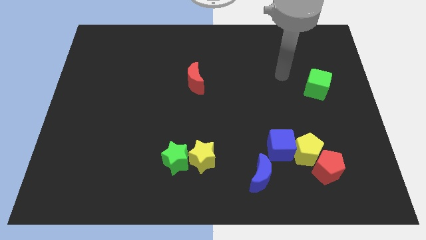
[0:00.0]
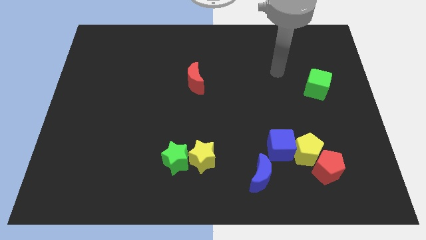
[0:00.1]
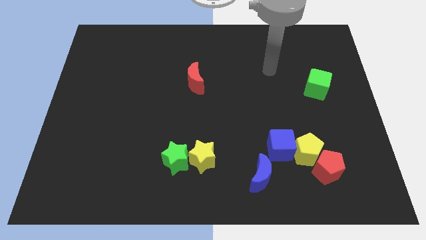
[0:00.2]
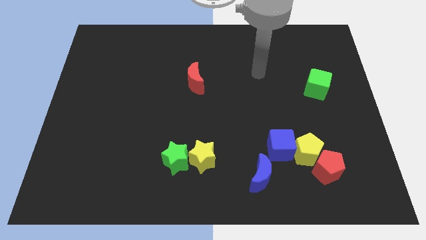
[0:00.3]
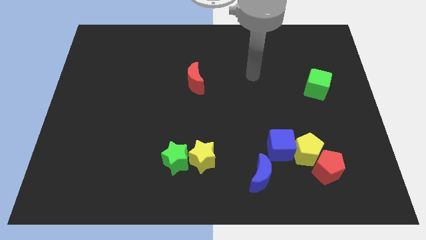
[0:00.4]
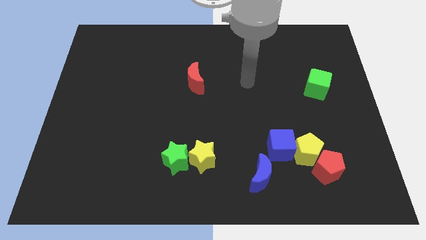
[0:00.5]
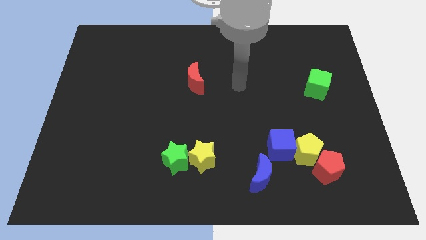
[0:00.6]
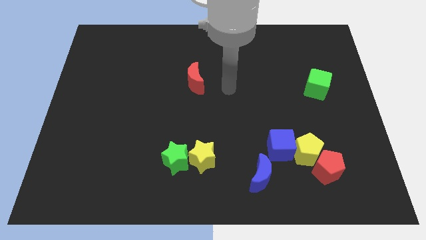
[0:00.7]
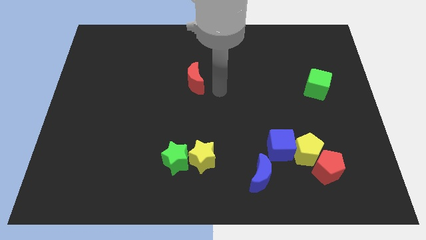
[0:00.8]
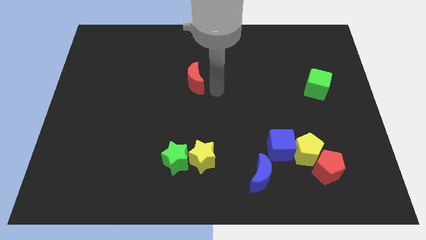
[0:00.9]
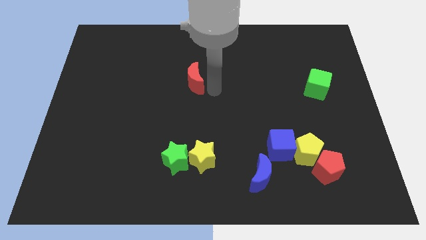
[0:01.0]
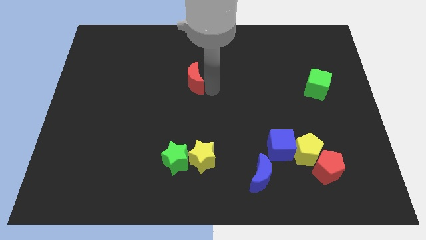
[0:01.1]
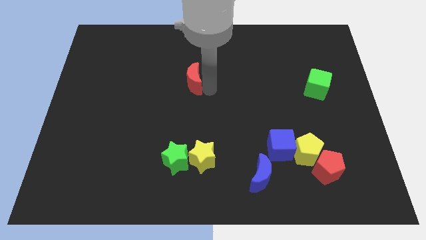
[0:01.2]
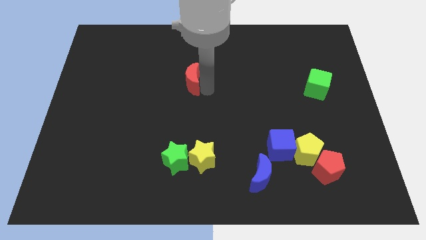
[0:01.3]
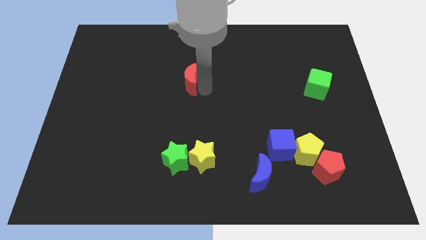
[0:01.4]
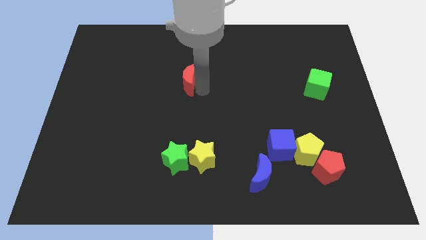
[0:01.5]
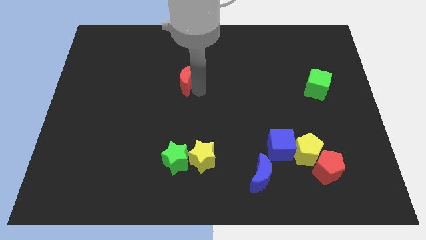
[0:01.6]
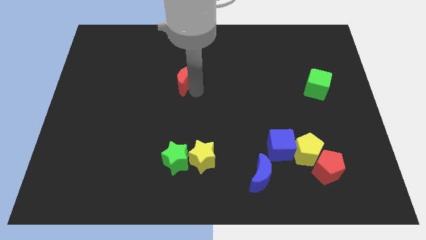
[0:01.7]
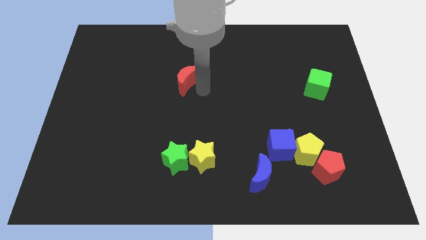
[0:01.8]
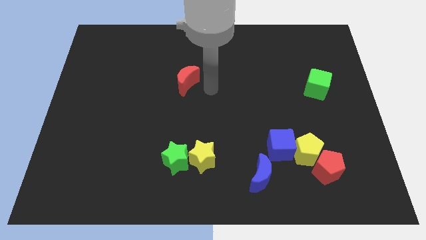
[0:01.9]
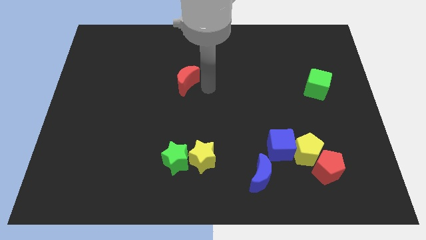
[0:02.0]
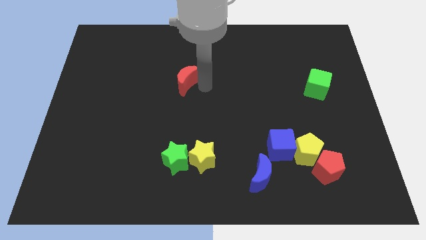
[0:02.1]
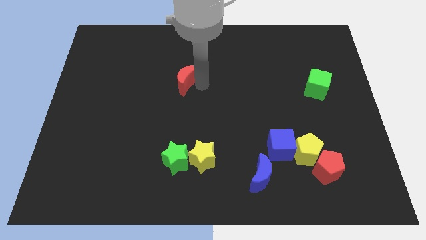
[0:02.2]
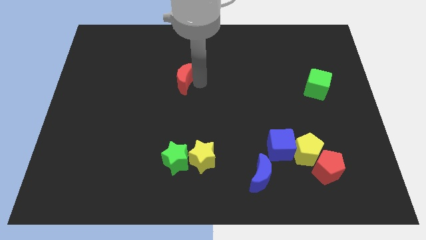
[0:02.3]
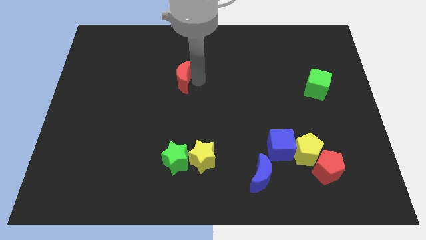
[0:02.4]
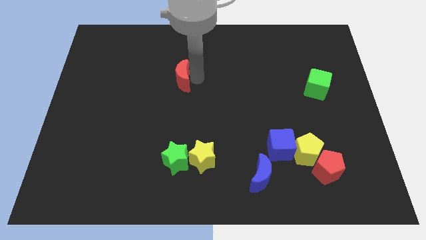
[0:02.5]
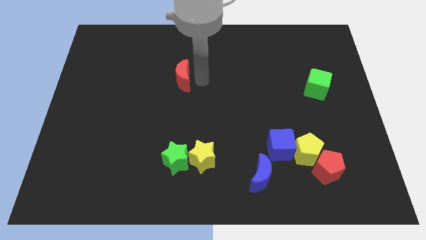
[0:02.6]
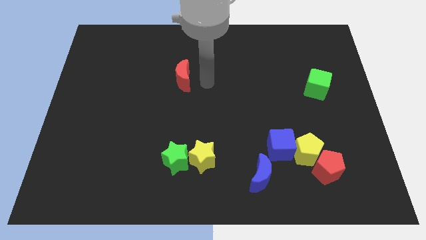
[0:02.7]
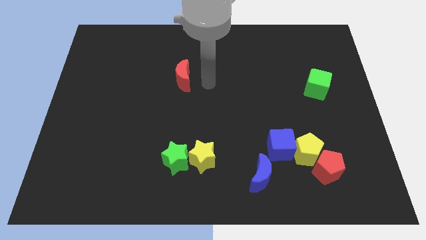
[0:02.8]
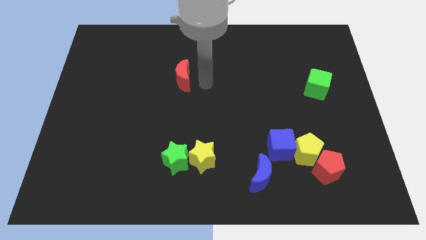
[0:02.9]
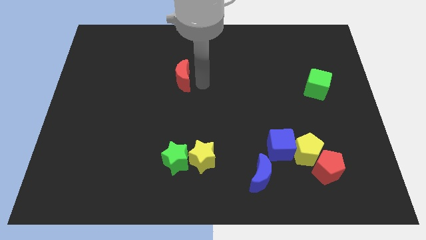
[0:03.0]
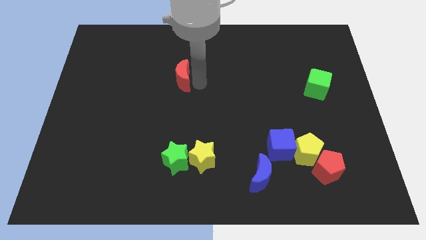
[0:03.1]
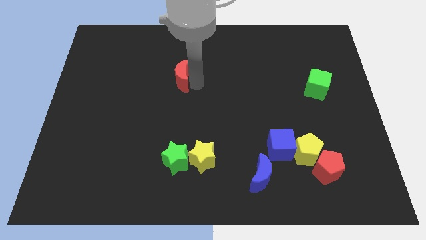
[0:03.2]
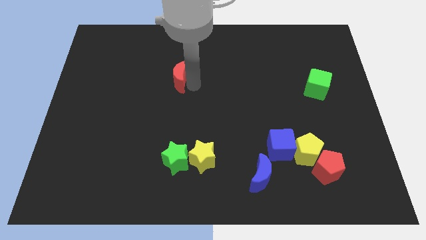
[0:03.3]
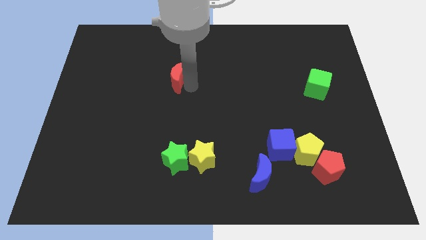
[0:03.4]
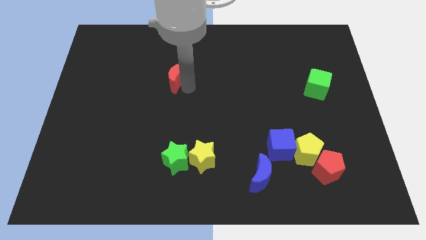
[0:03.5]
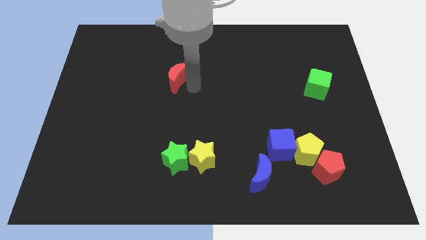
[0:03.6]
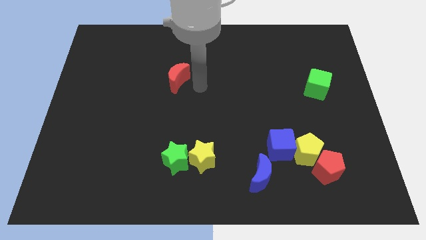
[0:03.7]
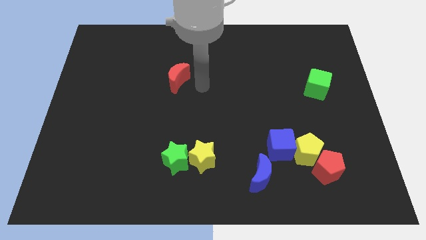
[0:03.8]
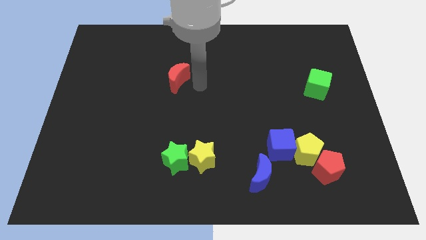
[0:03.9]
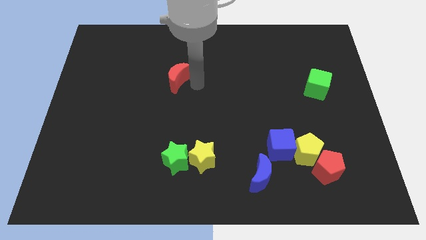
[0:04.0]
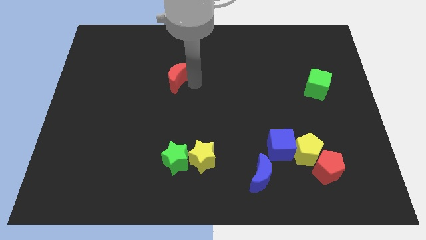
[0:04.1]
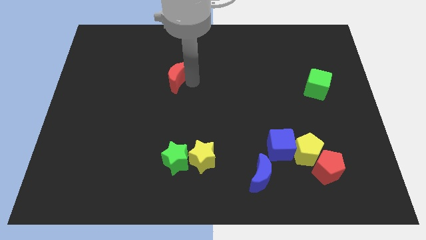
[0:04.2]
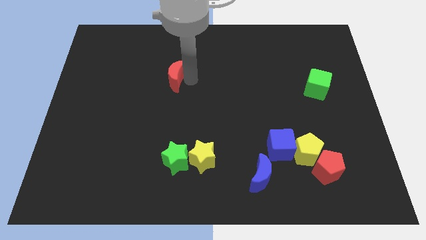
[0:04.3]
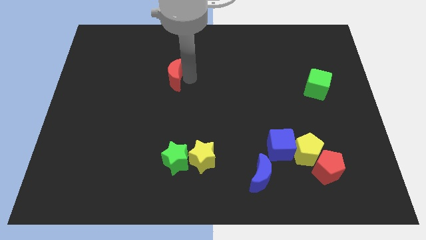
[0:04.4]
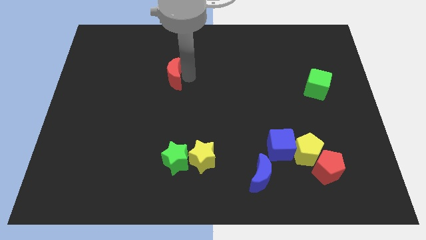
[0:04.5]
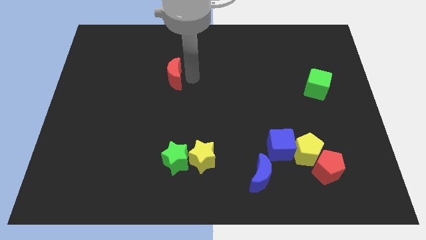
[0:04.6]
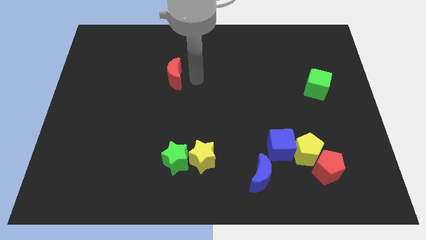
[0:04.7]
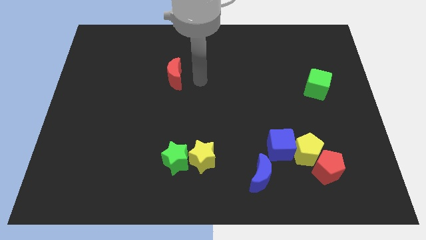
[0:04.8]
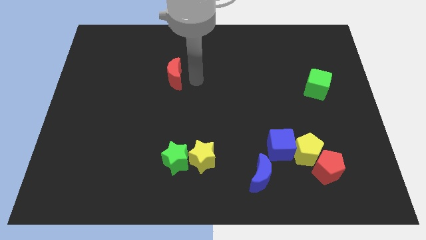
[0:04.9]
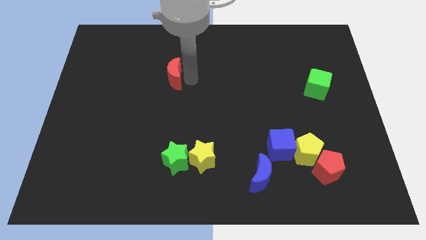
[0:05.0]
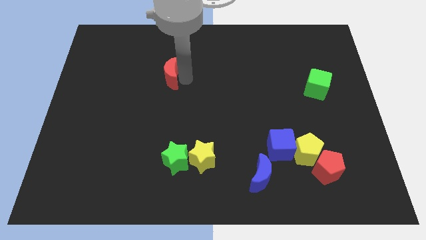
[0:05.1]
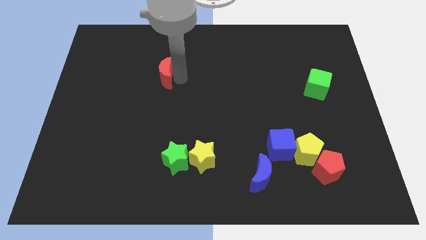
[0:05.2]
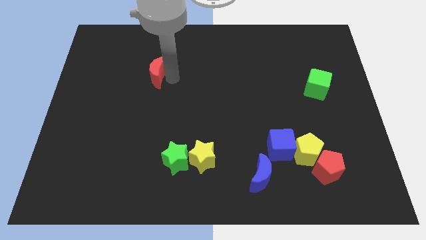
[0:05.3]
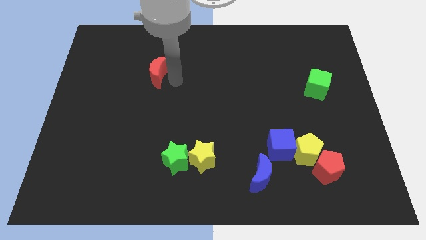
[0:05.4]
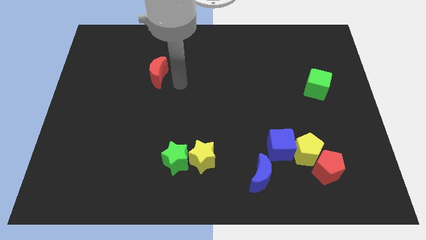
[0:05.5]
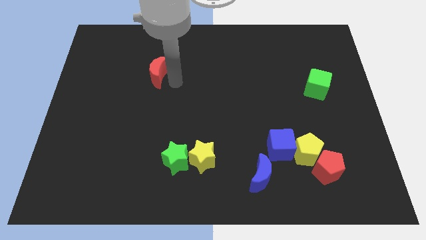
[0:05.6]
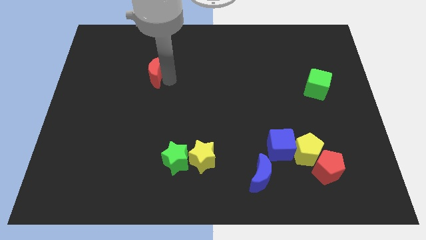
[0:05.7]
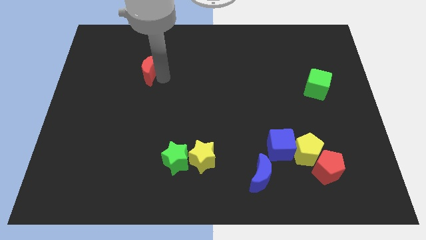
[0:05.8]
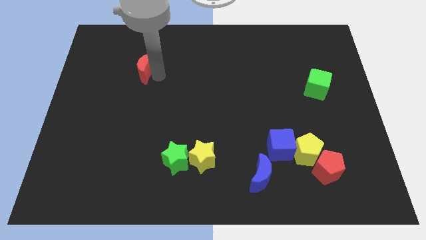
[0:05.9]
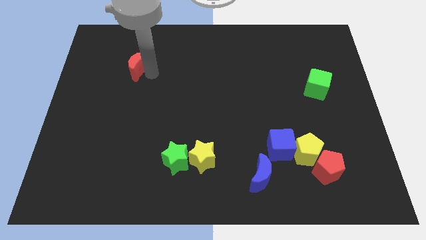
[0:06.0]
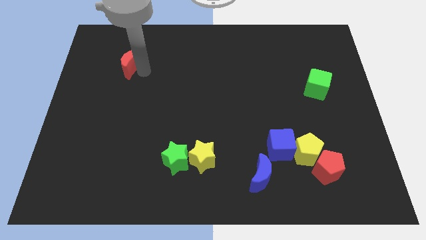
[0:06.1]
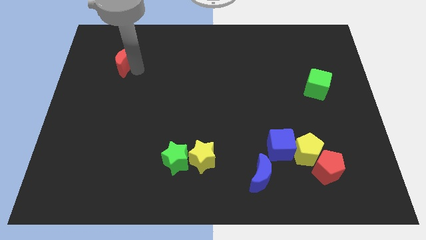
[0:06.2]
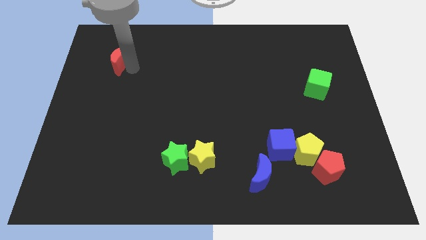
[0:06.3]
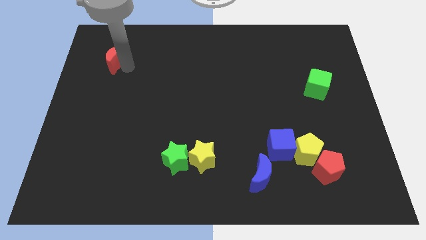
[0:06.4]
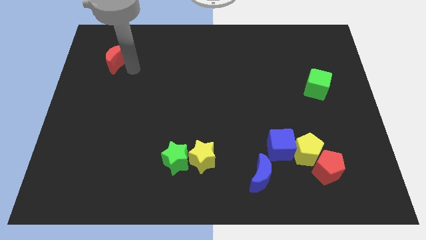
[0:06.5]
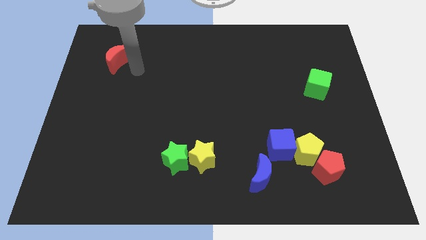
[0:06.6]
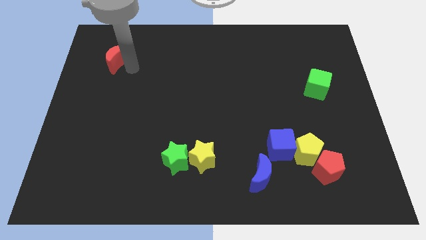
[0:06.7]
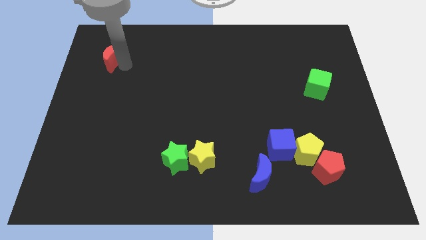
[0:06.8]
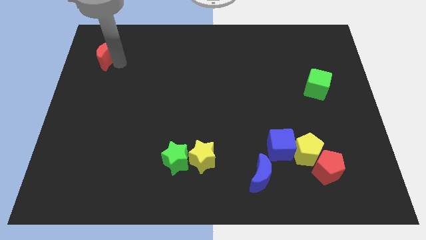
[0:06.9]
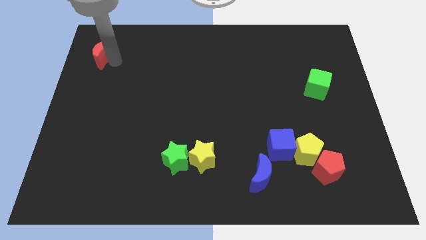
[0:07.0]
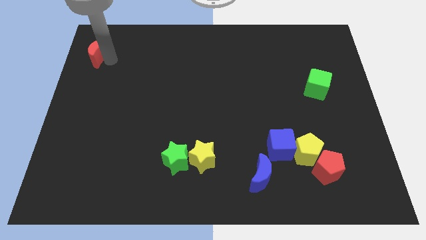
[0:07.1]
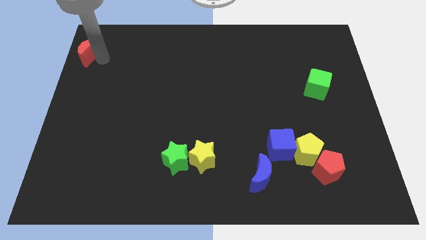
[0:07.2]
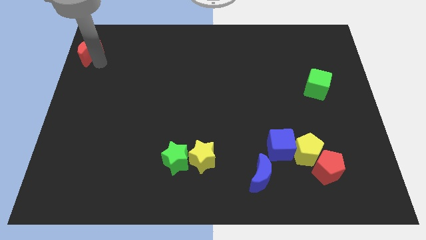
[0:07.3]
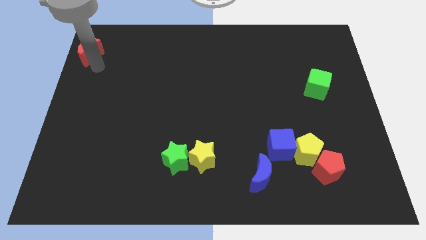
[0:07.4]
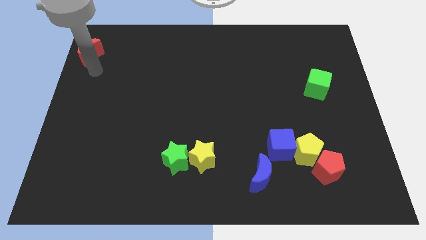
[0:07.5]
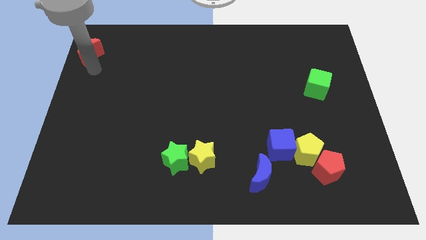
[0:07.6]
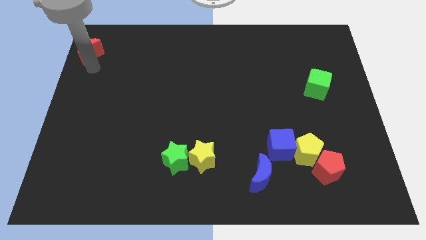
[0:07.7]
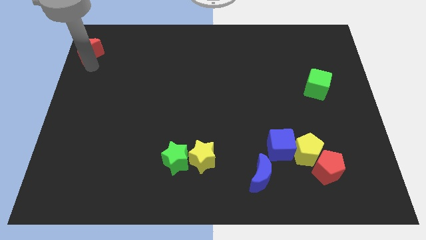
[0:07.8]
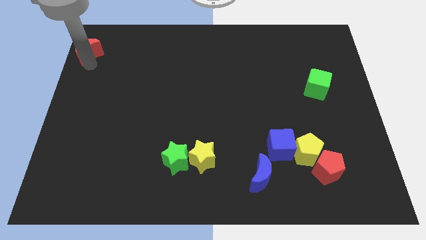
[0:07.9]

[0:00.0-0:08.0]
slide the red moon to the top left corner
